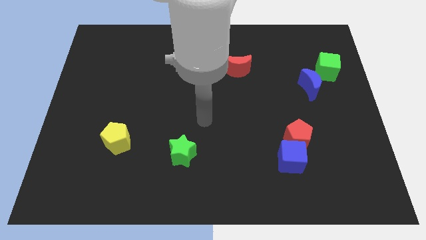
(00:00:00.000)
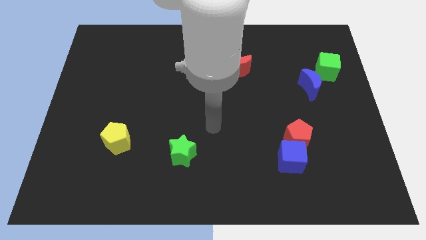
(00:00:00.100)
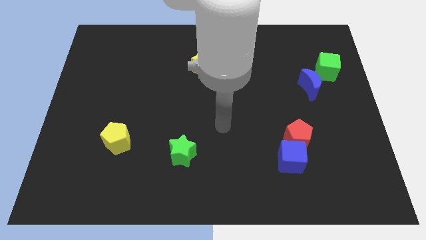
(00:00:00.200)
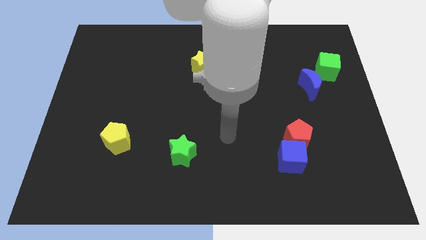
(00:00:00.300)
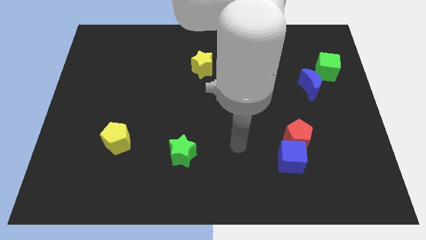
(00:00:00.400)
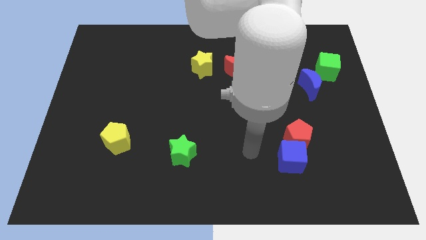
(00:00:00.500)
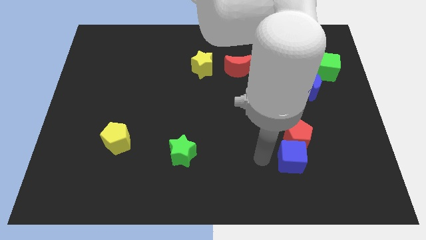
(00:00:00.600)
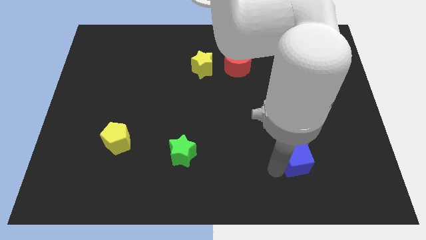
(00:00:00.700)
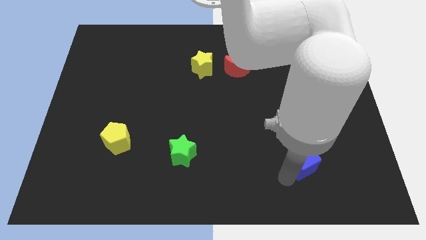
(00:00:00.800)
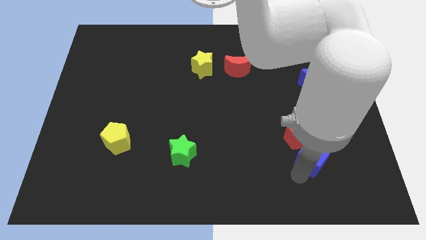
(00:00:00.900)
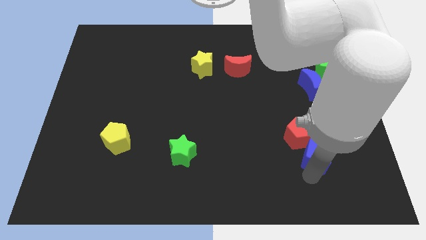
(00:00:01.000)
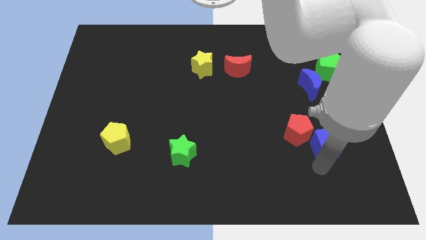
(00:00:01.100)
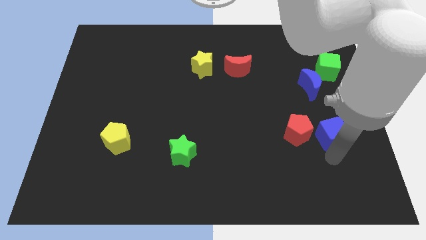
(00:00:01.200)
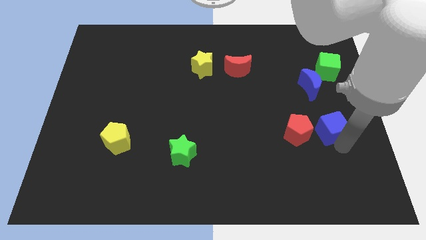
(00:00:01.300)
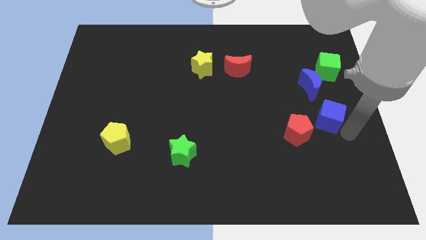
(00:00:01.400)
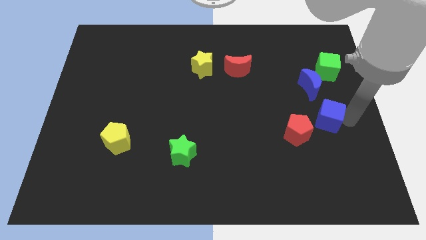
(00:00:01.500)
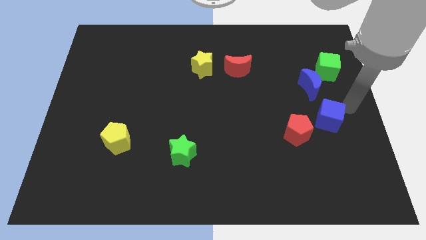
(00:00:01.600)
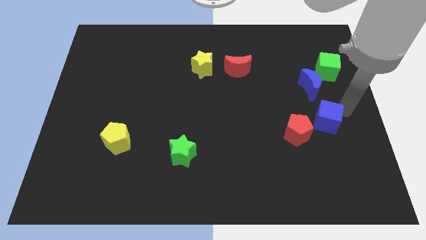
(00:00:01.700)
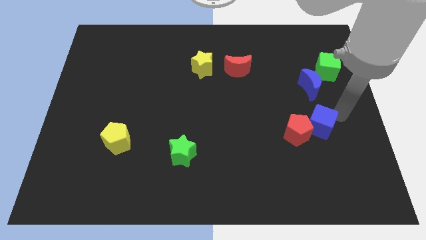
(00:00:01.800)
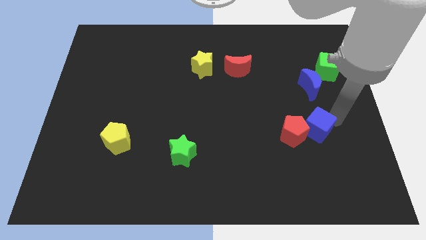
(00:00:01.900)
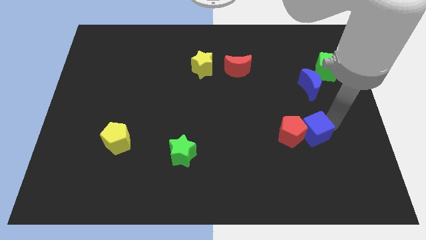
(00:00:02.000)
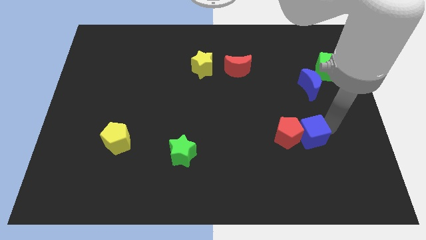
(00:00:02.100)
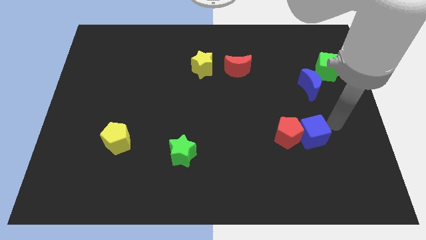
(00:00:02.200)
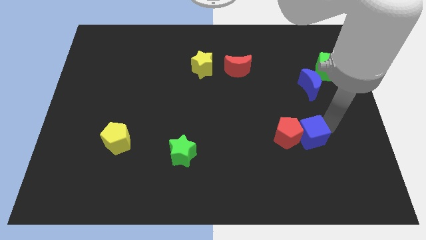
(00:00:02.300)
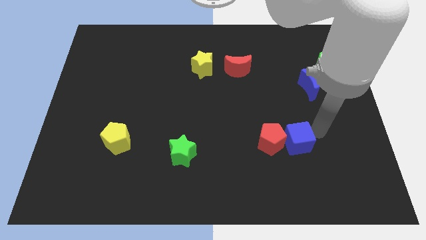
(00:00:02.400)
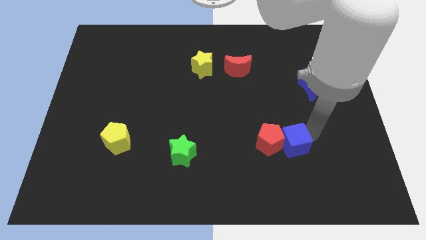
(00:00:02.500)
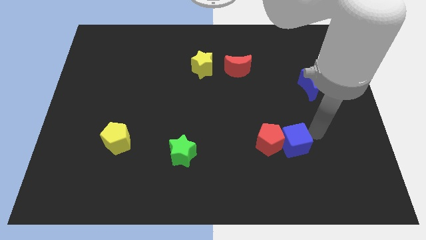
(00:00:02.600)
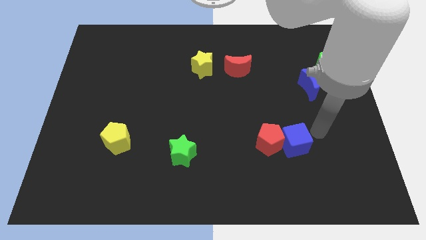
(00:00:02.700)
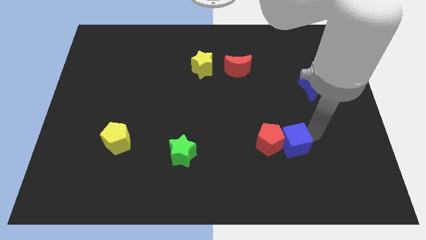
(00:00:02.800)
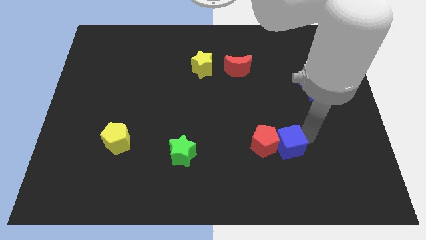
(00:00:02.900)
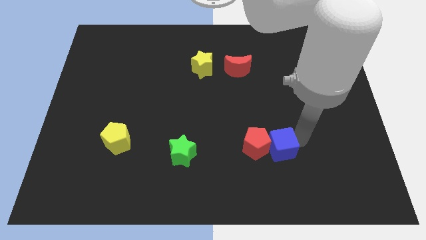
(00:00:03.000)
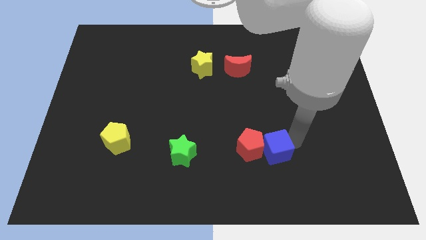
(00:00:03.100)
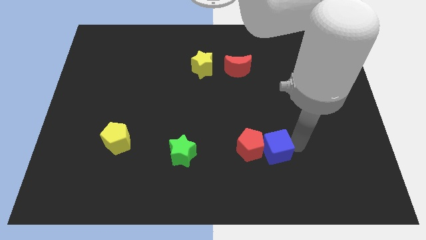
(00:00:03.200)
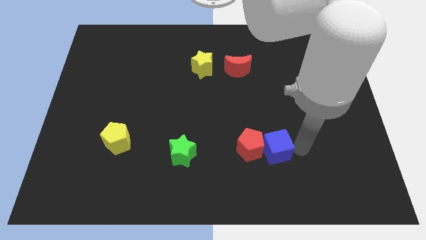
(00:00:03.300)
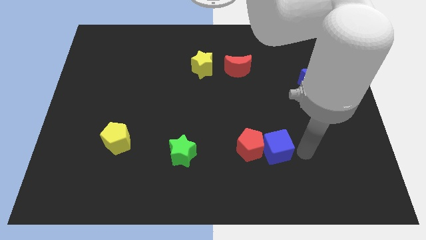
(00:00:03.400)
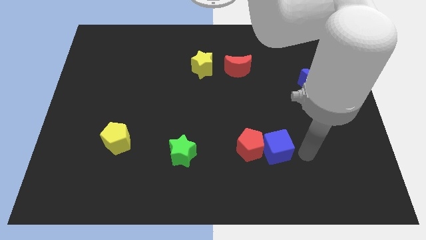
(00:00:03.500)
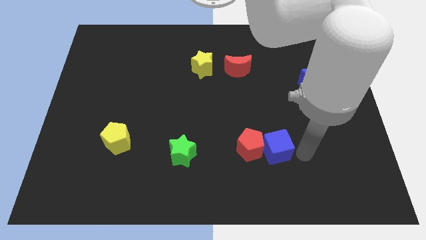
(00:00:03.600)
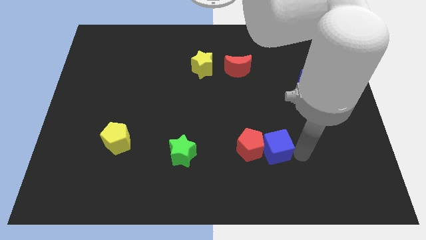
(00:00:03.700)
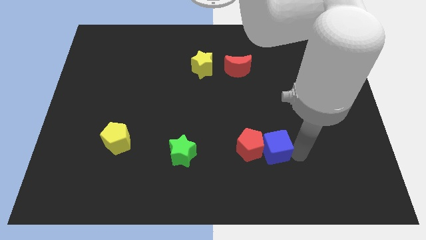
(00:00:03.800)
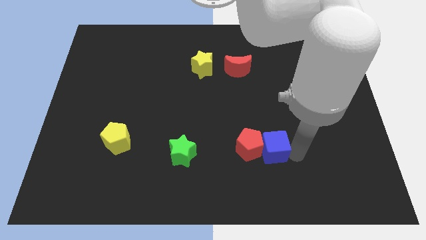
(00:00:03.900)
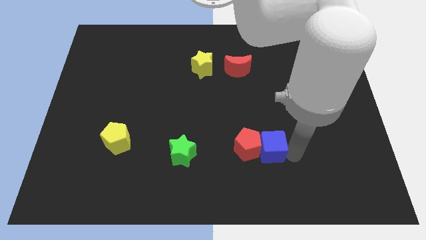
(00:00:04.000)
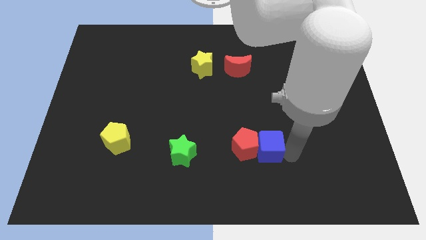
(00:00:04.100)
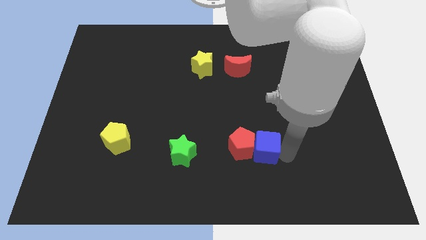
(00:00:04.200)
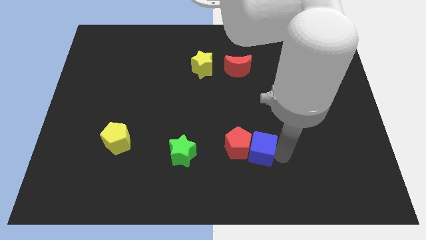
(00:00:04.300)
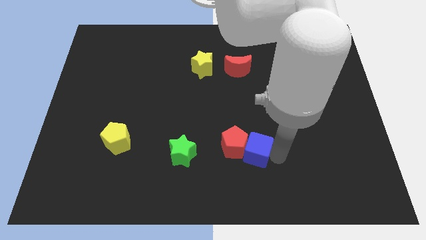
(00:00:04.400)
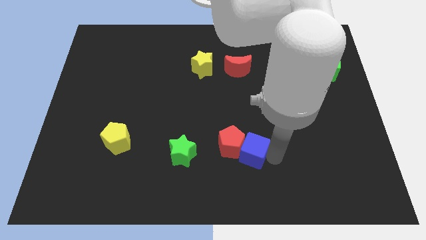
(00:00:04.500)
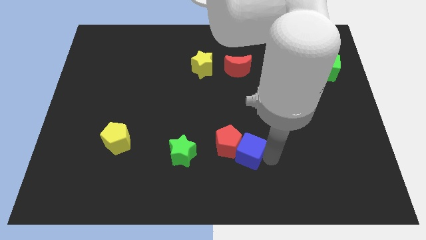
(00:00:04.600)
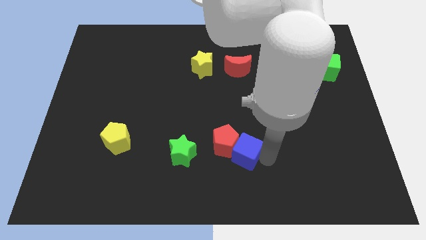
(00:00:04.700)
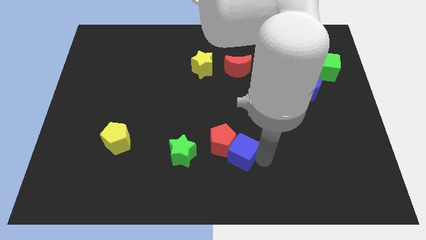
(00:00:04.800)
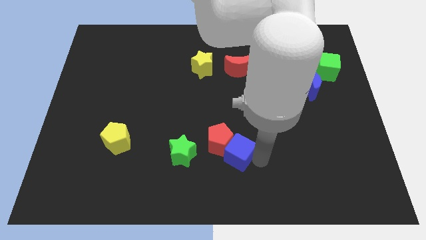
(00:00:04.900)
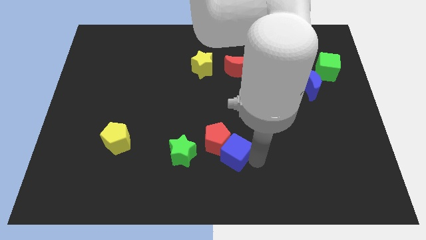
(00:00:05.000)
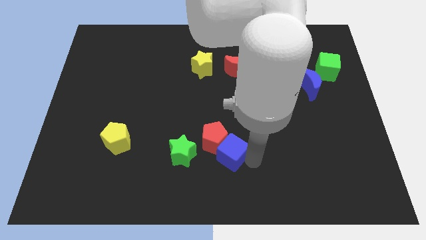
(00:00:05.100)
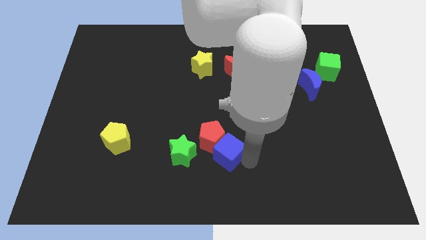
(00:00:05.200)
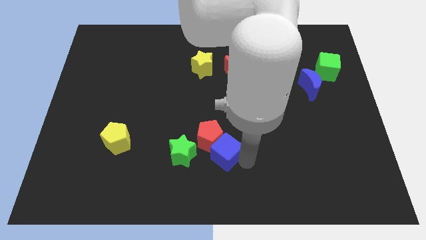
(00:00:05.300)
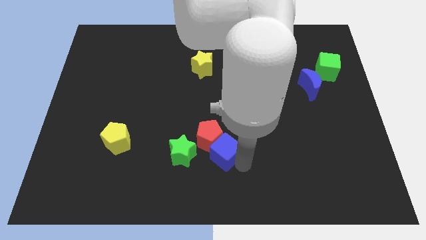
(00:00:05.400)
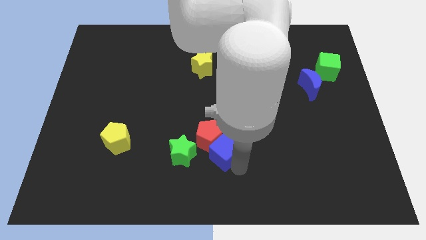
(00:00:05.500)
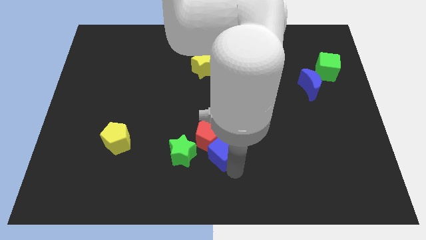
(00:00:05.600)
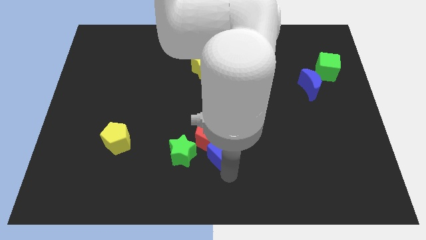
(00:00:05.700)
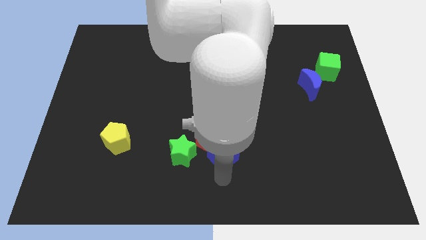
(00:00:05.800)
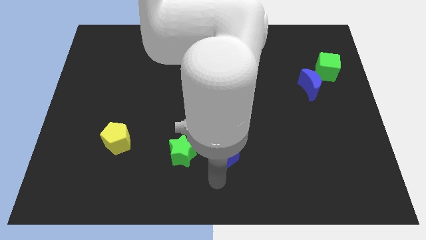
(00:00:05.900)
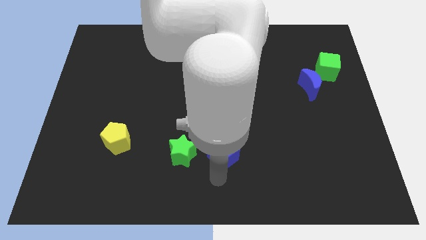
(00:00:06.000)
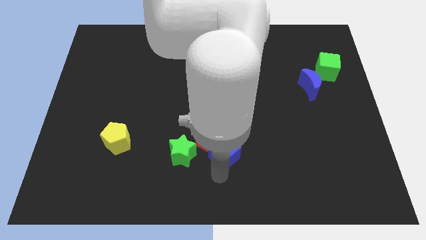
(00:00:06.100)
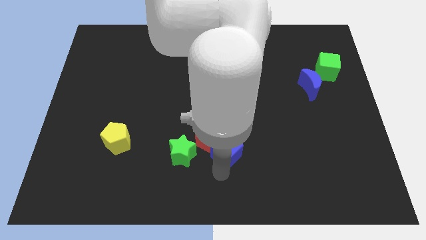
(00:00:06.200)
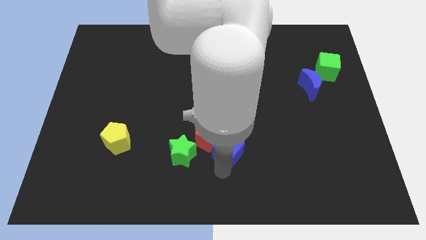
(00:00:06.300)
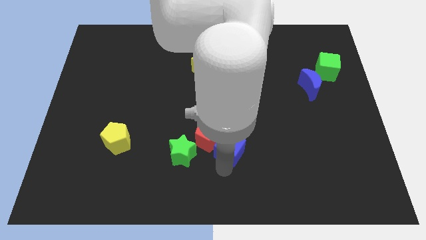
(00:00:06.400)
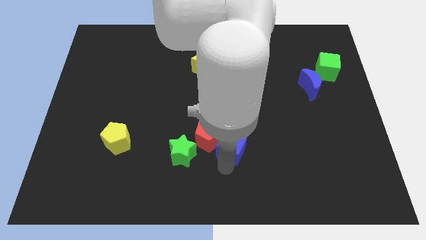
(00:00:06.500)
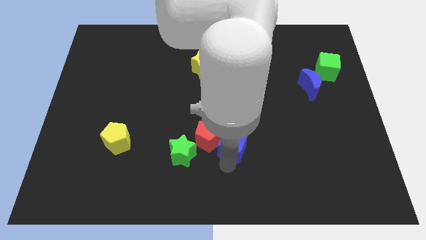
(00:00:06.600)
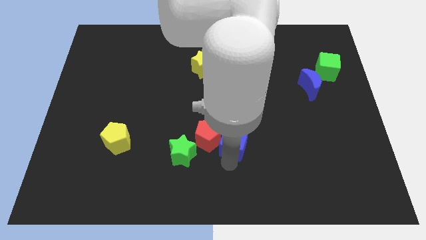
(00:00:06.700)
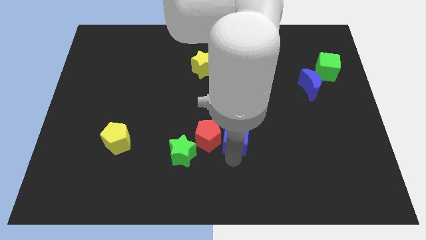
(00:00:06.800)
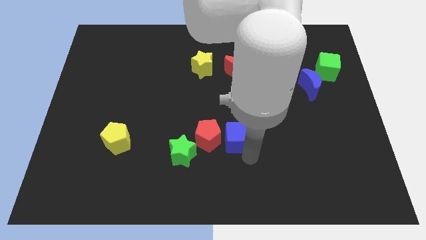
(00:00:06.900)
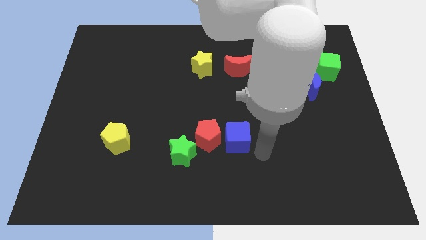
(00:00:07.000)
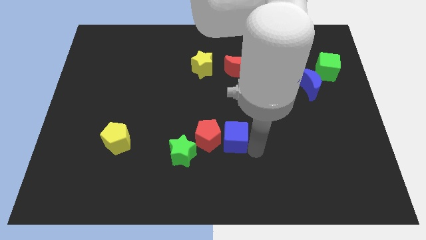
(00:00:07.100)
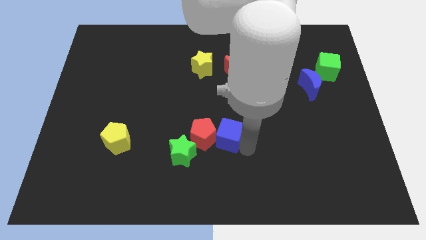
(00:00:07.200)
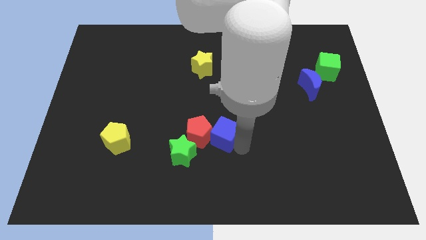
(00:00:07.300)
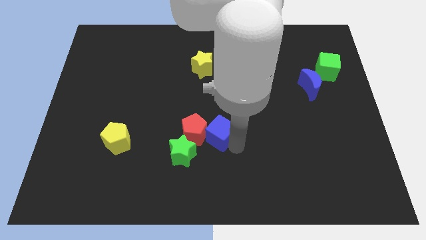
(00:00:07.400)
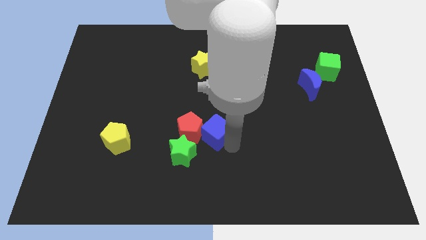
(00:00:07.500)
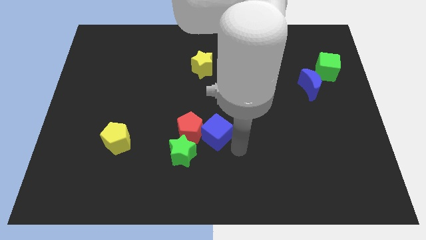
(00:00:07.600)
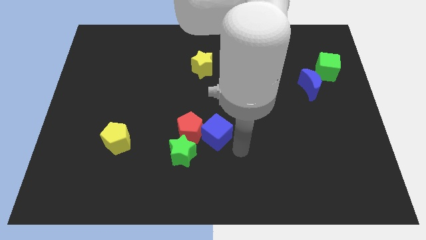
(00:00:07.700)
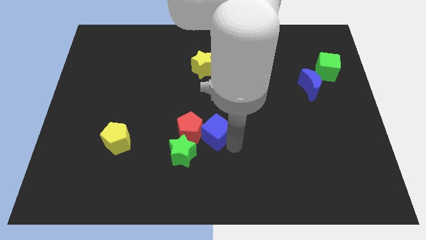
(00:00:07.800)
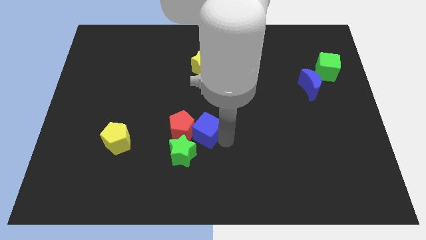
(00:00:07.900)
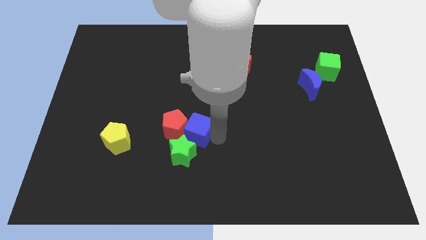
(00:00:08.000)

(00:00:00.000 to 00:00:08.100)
move the blue cube above the green star
